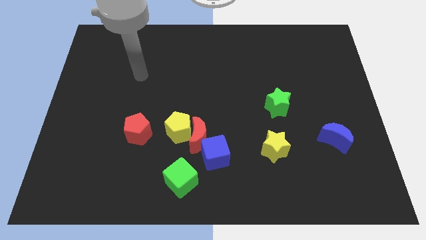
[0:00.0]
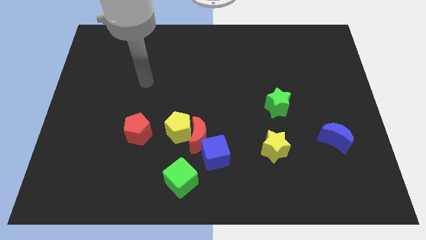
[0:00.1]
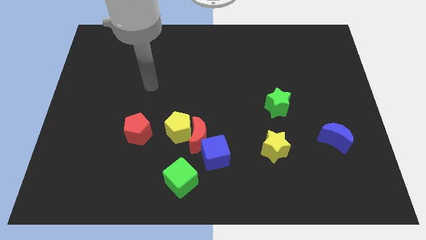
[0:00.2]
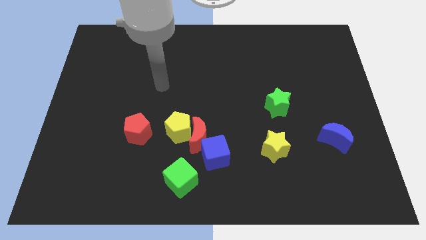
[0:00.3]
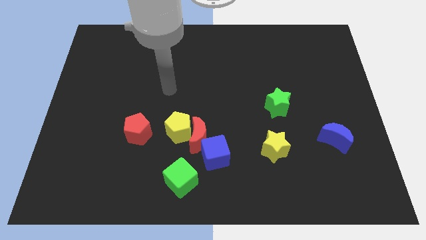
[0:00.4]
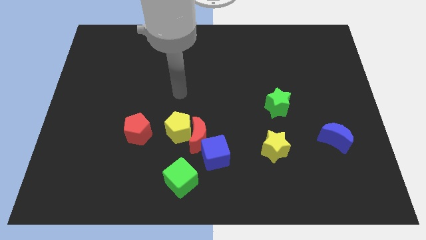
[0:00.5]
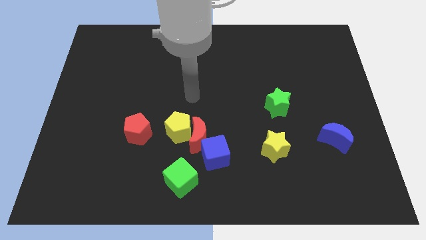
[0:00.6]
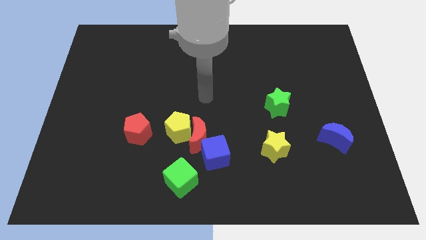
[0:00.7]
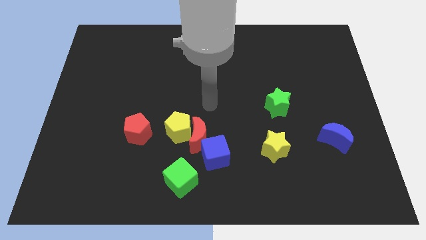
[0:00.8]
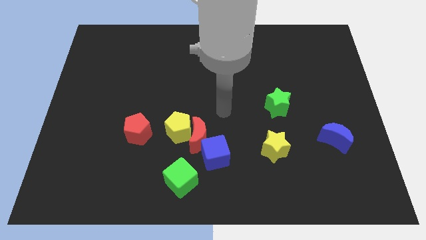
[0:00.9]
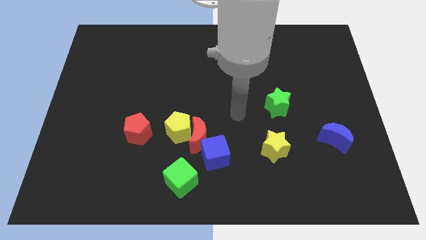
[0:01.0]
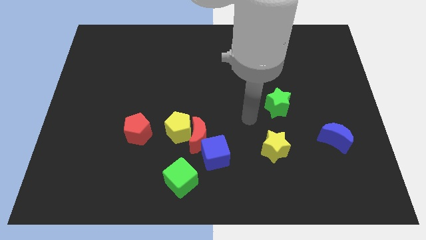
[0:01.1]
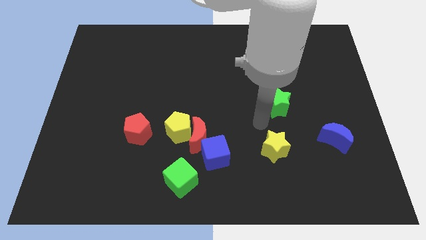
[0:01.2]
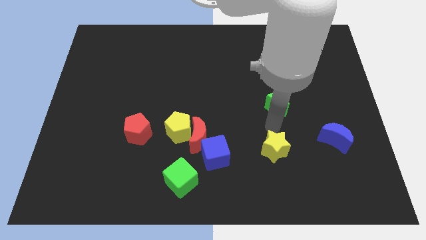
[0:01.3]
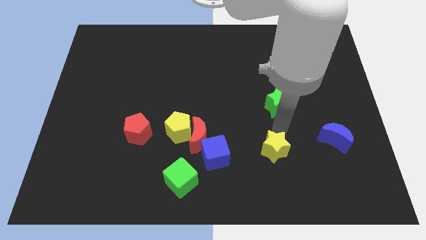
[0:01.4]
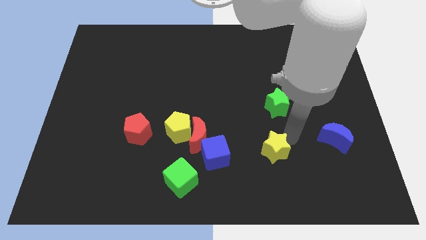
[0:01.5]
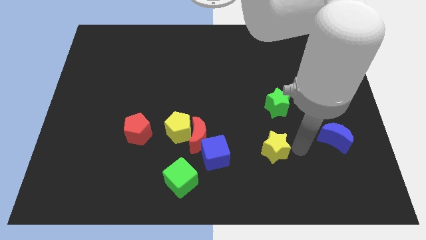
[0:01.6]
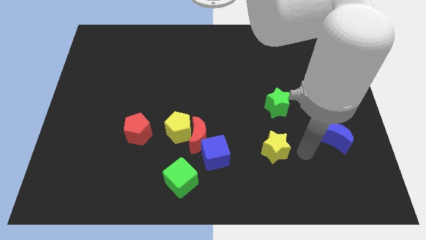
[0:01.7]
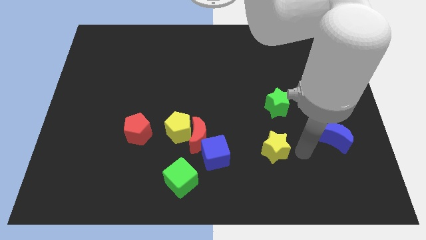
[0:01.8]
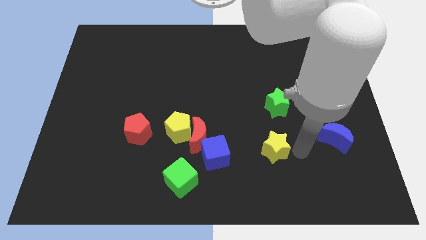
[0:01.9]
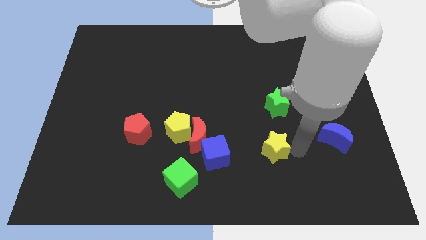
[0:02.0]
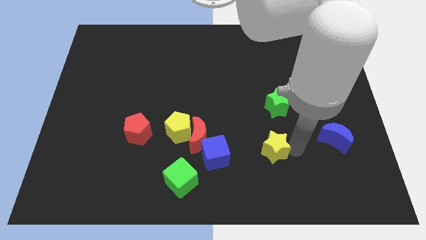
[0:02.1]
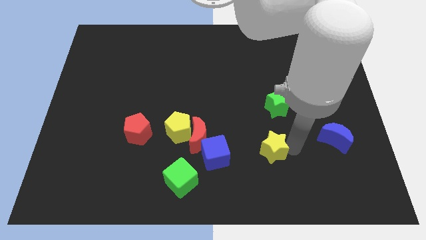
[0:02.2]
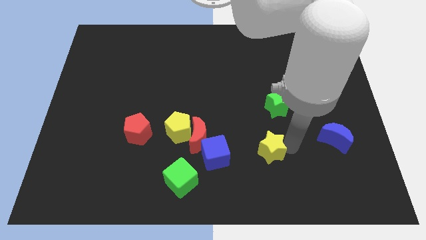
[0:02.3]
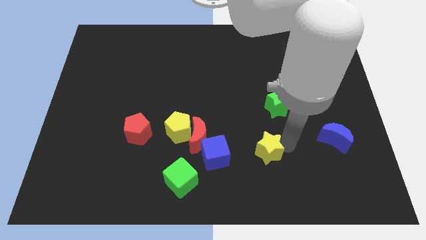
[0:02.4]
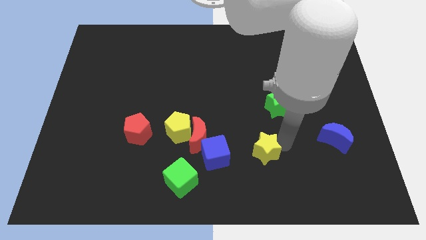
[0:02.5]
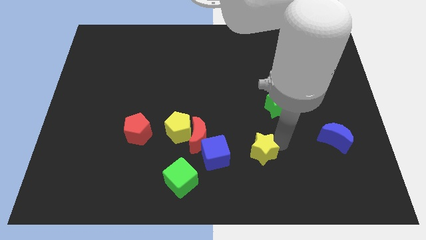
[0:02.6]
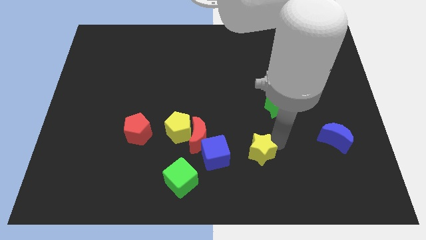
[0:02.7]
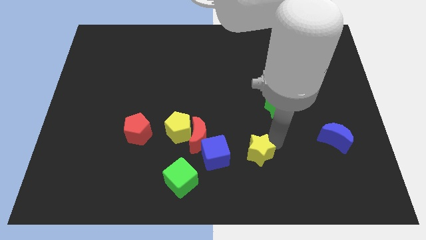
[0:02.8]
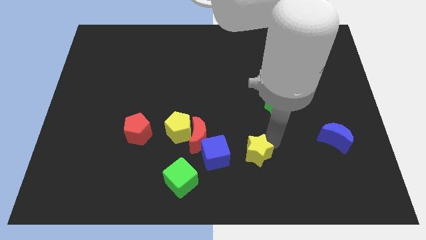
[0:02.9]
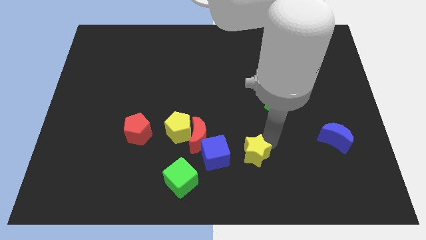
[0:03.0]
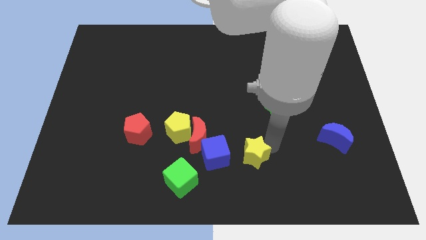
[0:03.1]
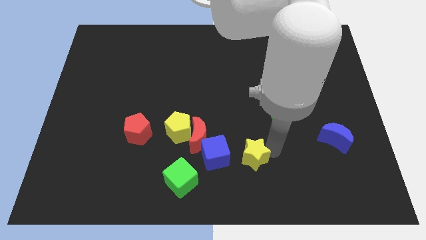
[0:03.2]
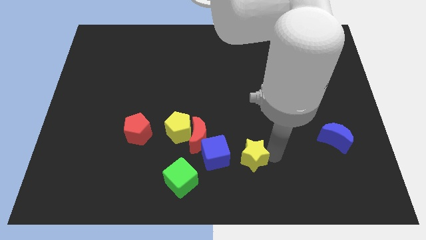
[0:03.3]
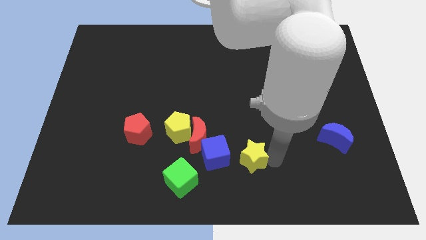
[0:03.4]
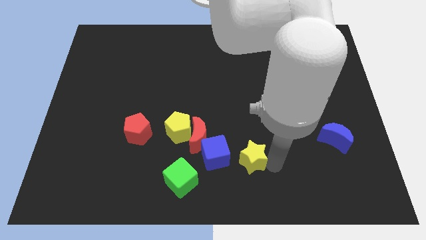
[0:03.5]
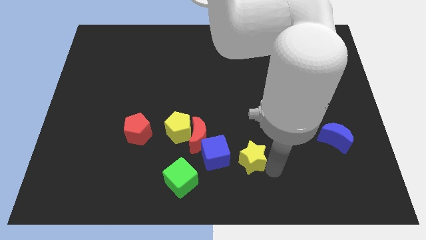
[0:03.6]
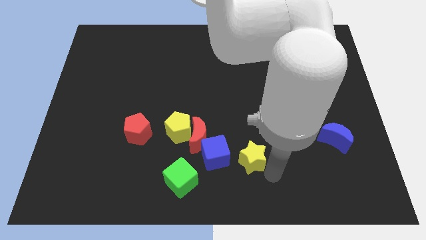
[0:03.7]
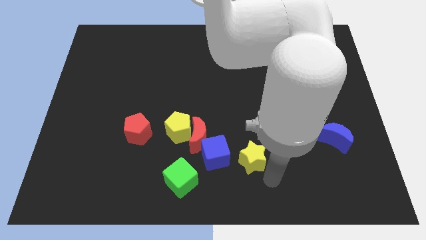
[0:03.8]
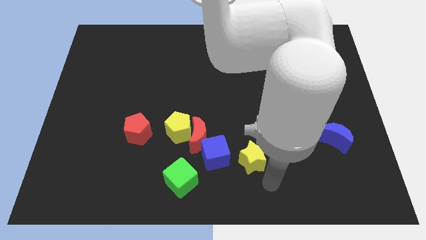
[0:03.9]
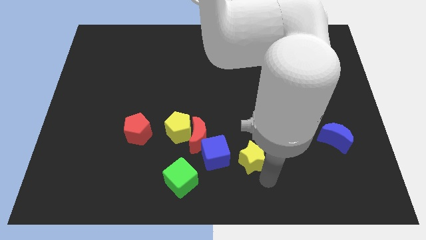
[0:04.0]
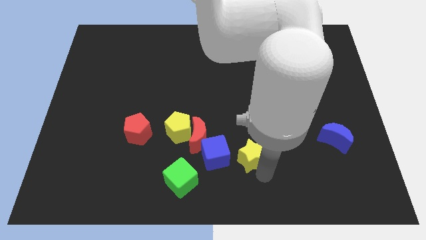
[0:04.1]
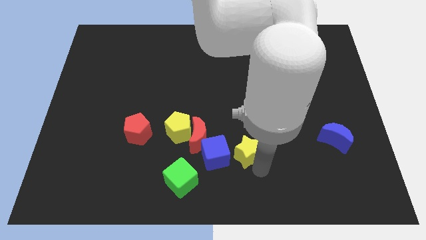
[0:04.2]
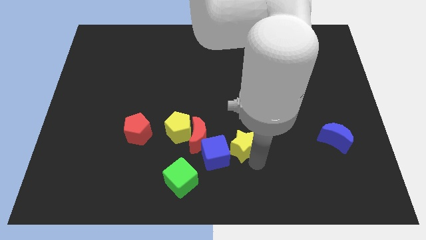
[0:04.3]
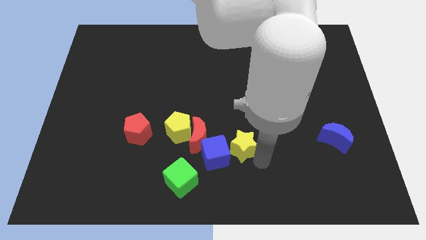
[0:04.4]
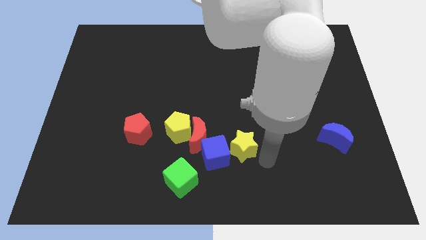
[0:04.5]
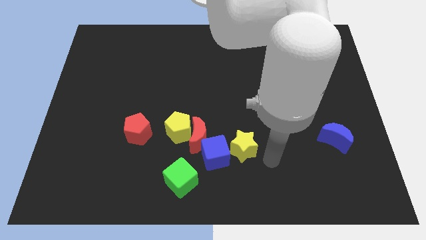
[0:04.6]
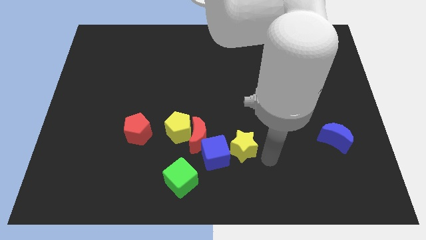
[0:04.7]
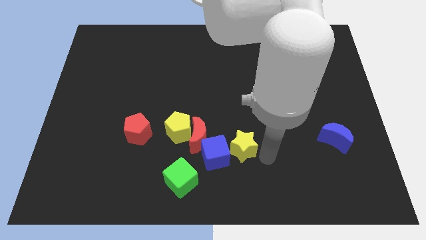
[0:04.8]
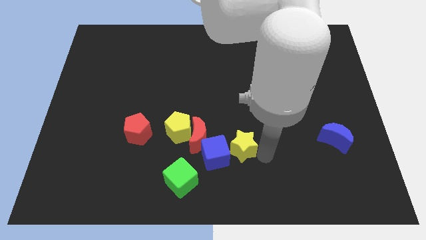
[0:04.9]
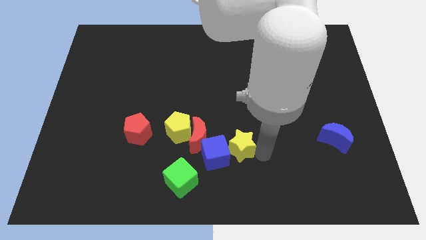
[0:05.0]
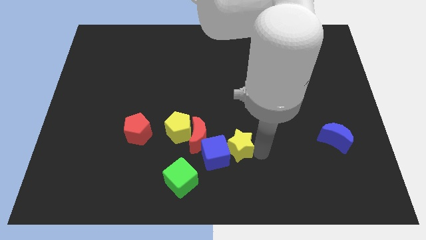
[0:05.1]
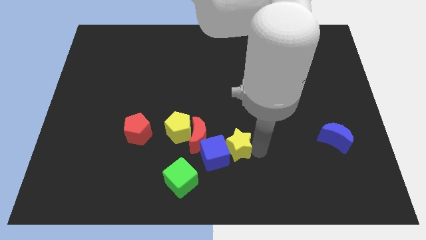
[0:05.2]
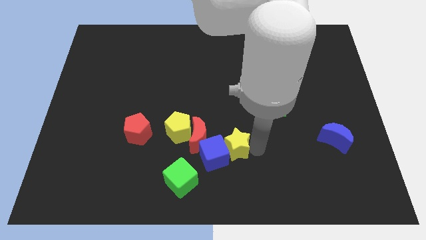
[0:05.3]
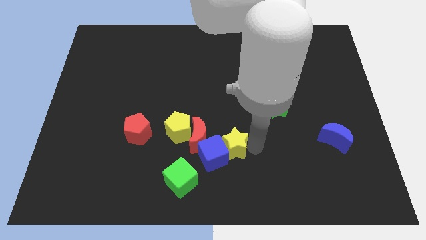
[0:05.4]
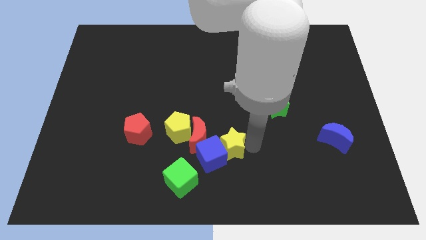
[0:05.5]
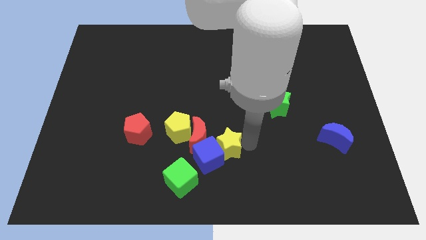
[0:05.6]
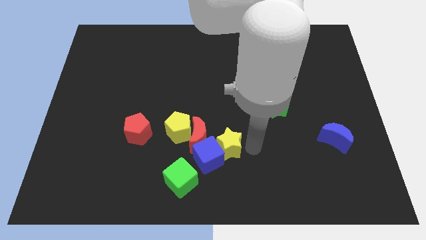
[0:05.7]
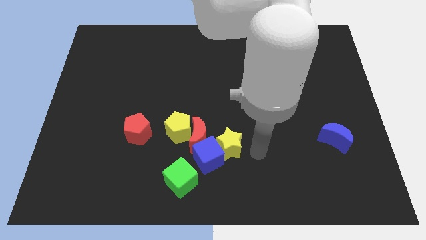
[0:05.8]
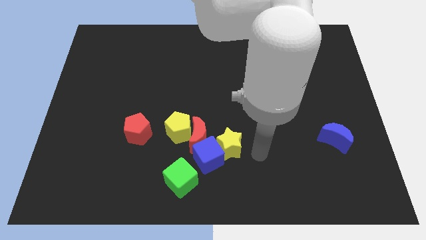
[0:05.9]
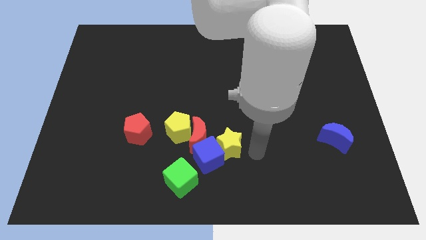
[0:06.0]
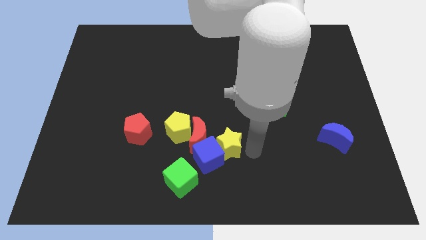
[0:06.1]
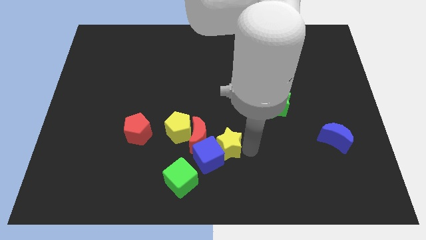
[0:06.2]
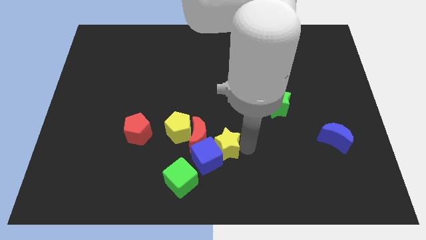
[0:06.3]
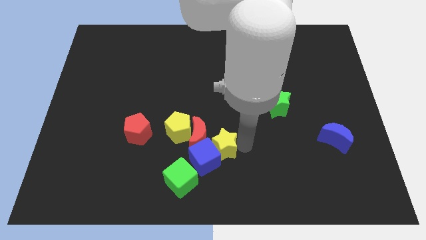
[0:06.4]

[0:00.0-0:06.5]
push the yellow star to the red moon
